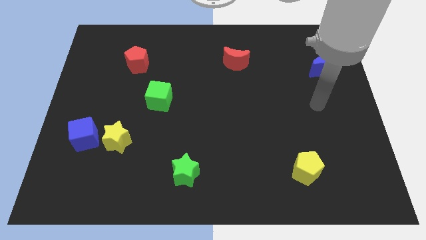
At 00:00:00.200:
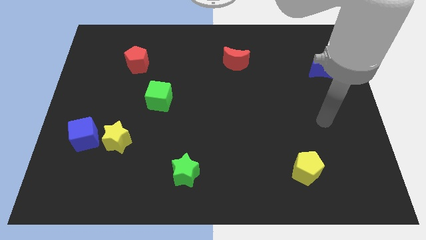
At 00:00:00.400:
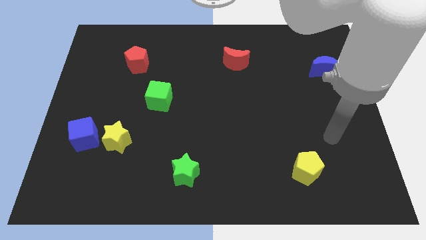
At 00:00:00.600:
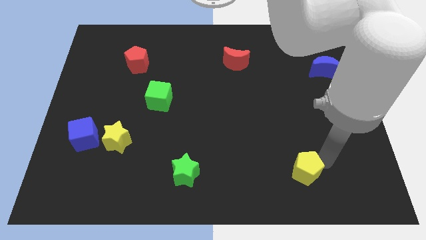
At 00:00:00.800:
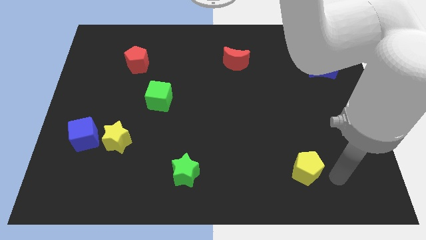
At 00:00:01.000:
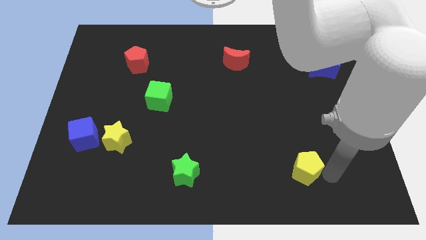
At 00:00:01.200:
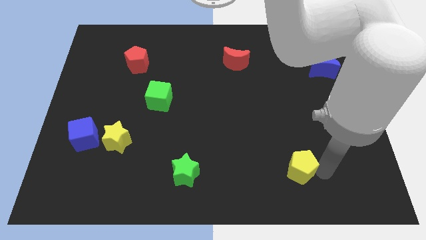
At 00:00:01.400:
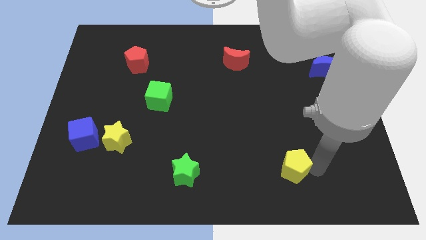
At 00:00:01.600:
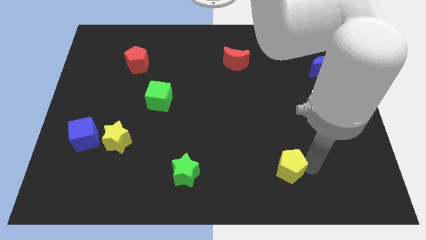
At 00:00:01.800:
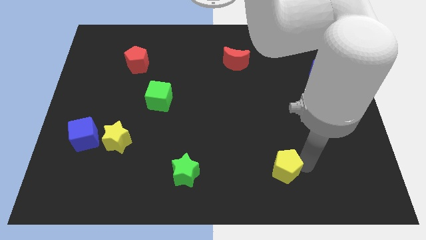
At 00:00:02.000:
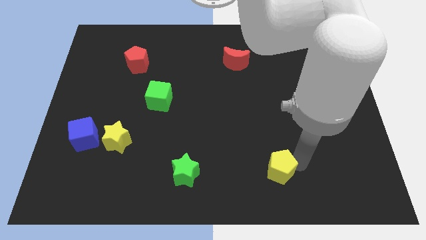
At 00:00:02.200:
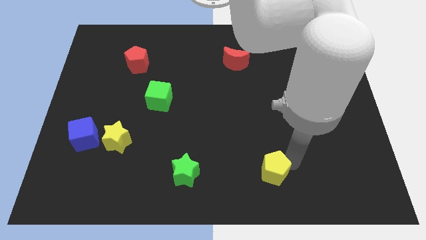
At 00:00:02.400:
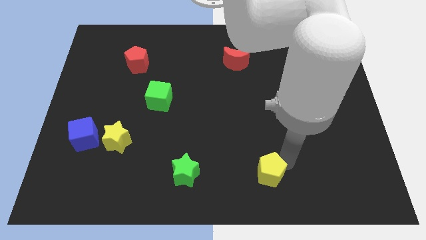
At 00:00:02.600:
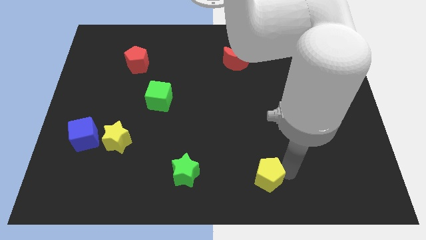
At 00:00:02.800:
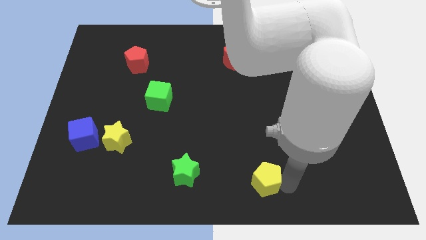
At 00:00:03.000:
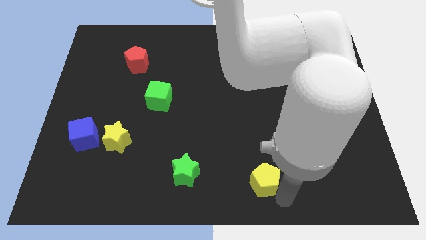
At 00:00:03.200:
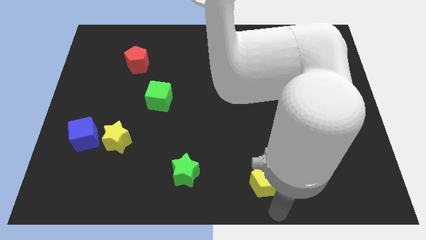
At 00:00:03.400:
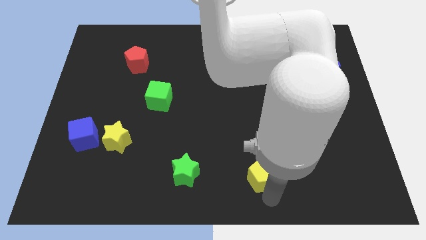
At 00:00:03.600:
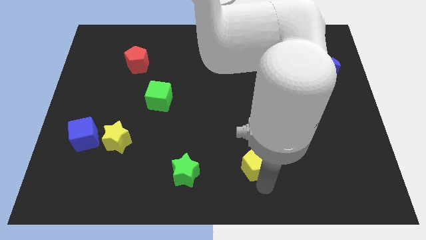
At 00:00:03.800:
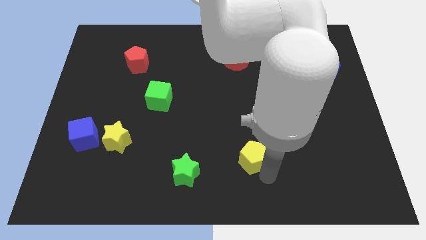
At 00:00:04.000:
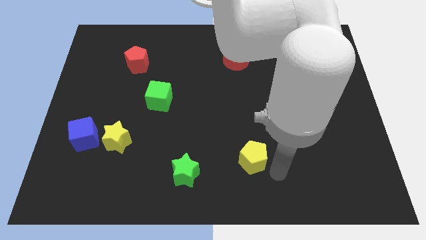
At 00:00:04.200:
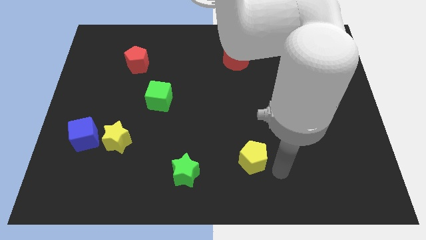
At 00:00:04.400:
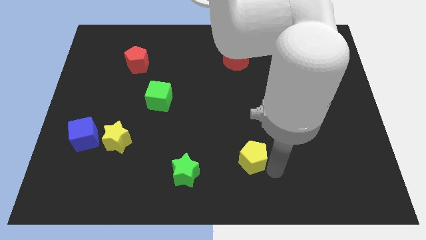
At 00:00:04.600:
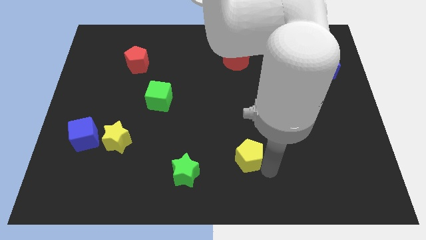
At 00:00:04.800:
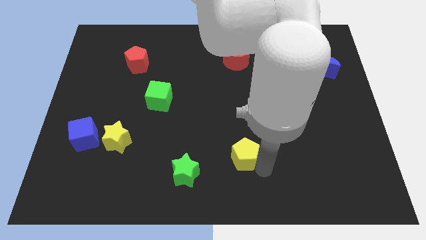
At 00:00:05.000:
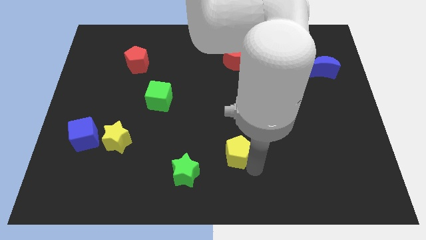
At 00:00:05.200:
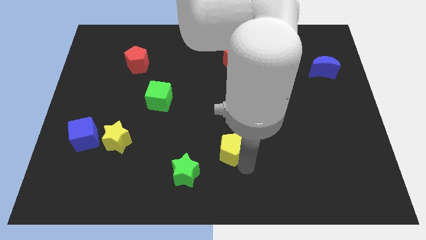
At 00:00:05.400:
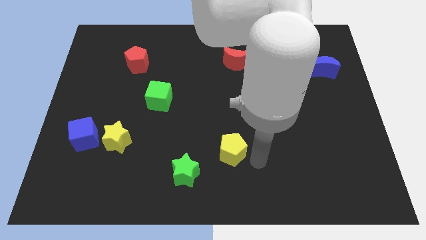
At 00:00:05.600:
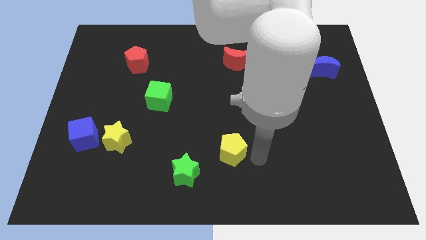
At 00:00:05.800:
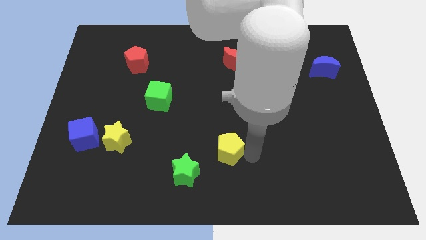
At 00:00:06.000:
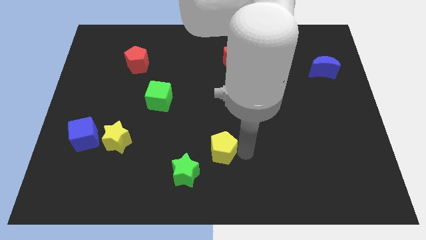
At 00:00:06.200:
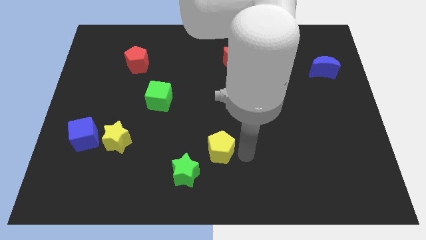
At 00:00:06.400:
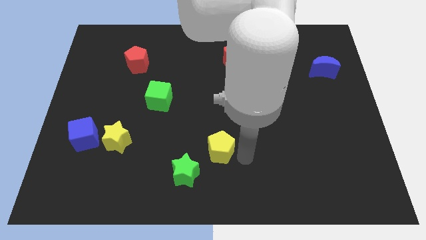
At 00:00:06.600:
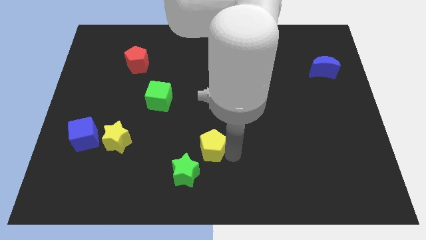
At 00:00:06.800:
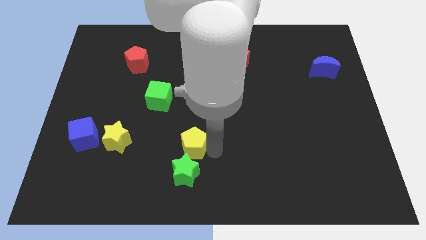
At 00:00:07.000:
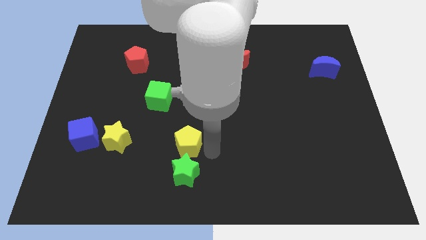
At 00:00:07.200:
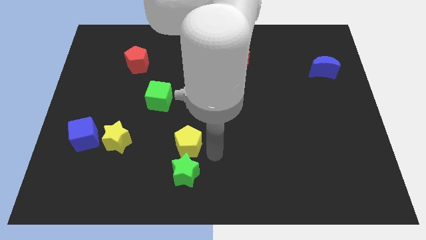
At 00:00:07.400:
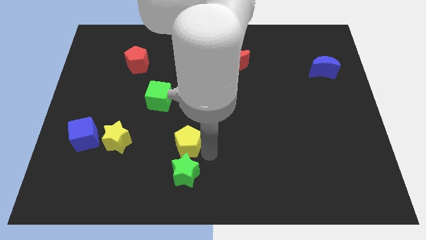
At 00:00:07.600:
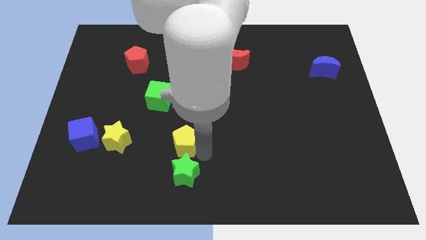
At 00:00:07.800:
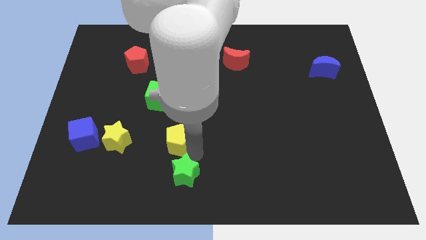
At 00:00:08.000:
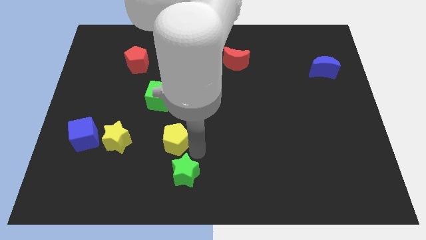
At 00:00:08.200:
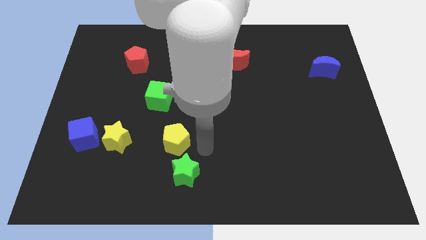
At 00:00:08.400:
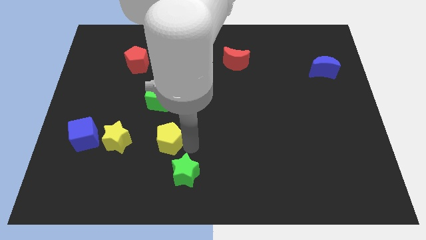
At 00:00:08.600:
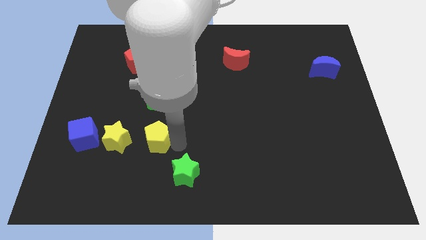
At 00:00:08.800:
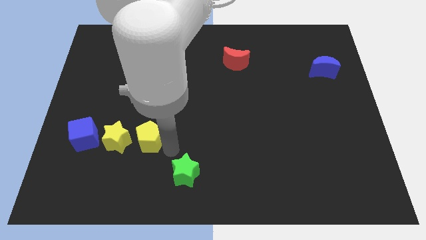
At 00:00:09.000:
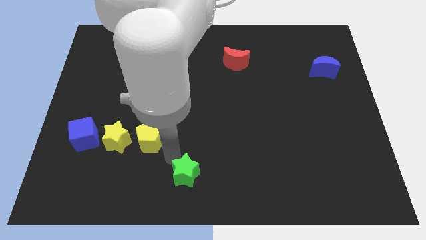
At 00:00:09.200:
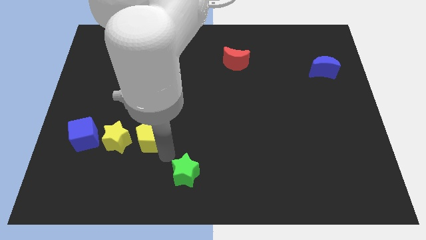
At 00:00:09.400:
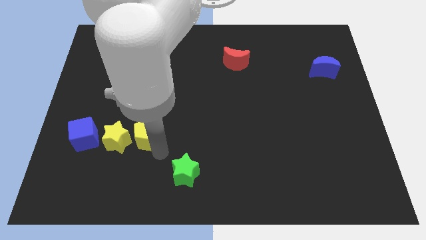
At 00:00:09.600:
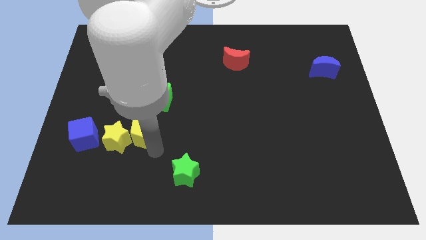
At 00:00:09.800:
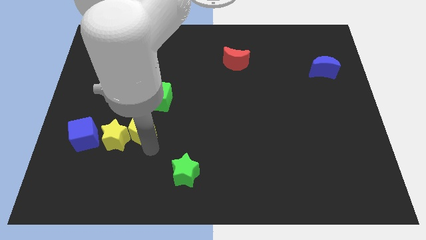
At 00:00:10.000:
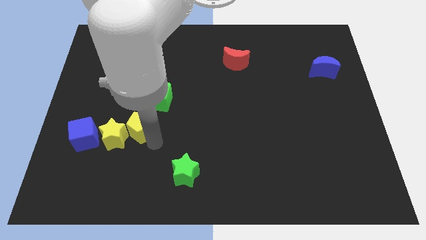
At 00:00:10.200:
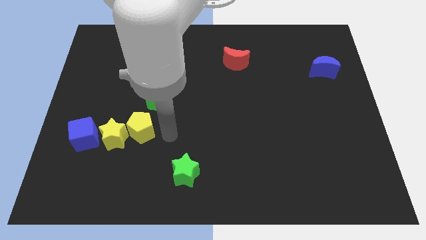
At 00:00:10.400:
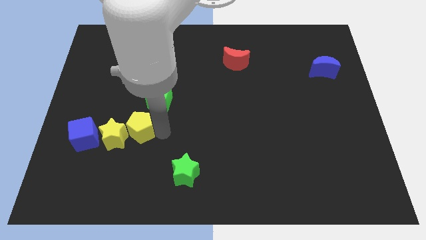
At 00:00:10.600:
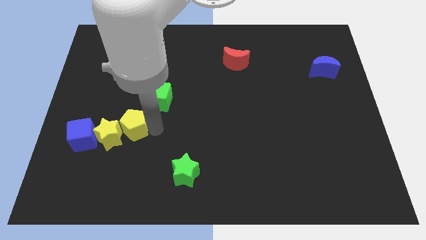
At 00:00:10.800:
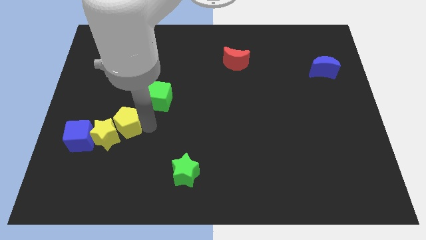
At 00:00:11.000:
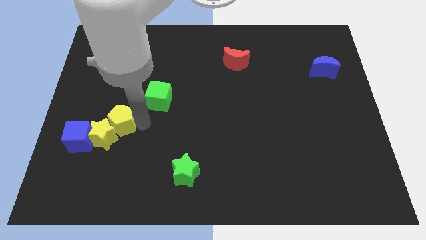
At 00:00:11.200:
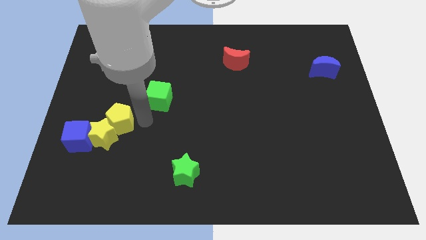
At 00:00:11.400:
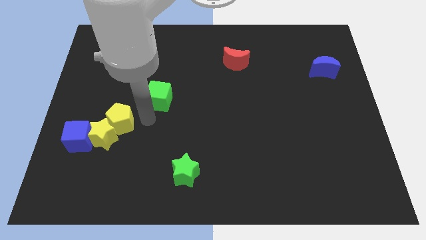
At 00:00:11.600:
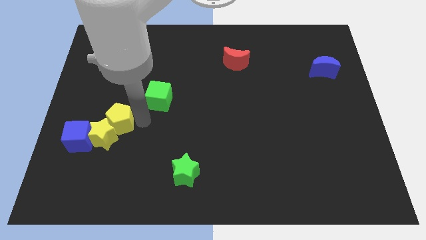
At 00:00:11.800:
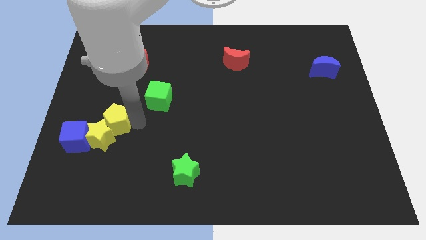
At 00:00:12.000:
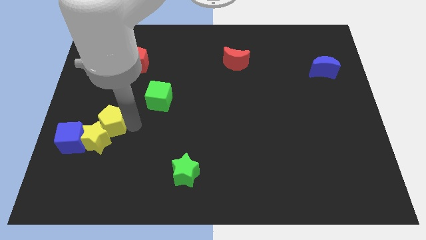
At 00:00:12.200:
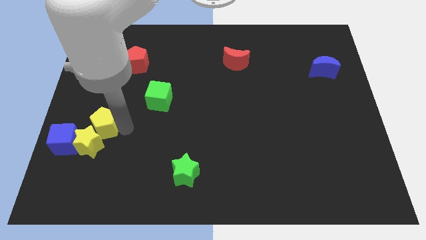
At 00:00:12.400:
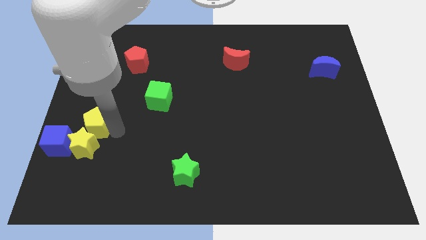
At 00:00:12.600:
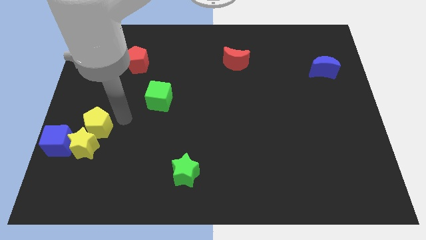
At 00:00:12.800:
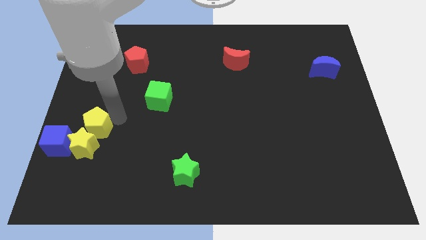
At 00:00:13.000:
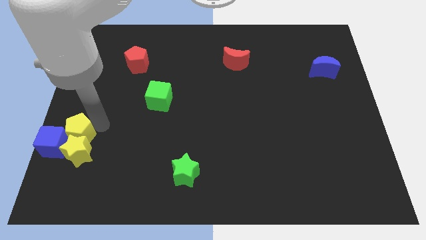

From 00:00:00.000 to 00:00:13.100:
move the yellow pentagon next to the blue cube

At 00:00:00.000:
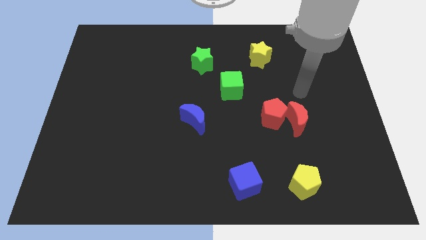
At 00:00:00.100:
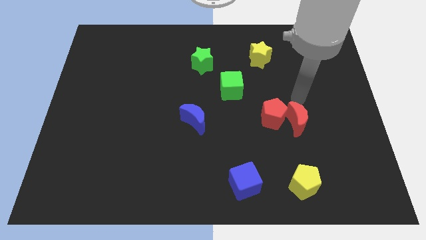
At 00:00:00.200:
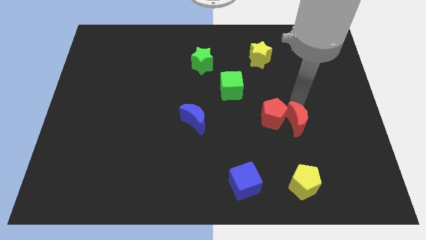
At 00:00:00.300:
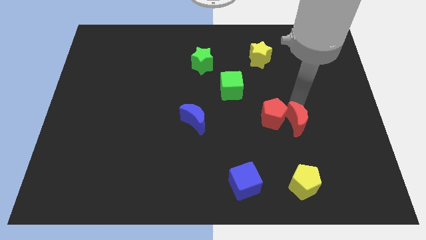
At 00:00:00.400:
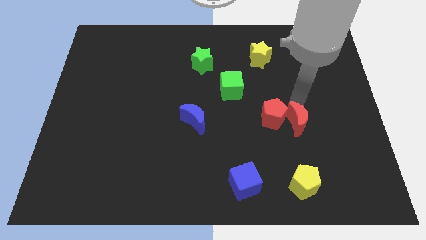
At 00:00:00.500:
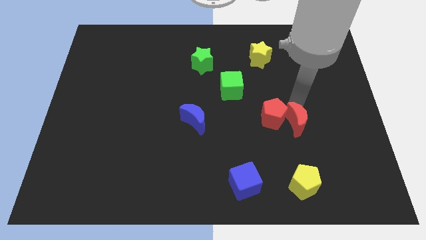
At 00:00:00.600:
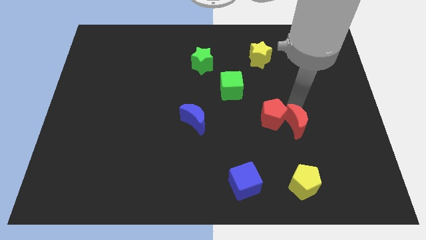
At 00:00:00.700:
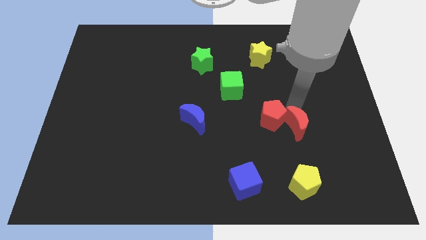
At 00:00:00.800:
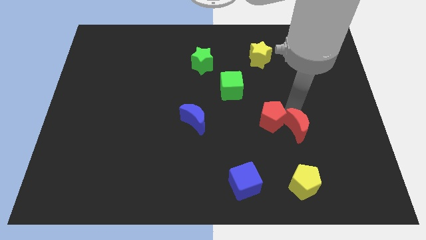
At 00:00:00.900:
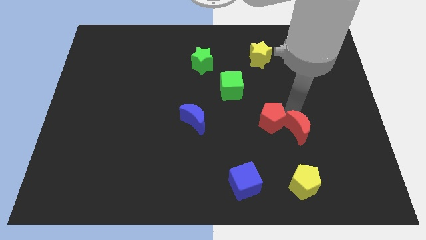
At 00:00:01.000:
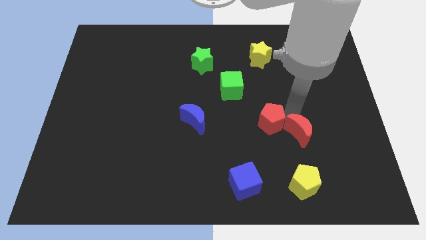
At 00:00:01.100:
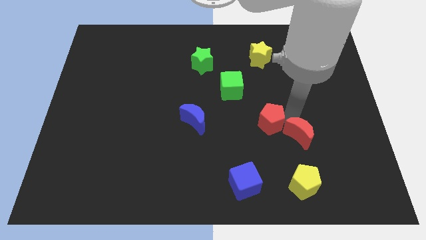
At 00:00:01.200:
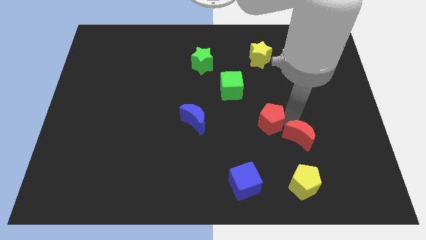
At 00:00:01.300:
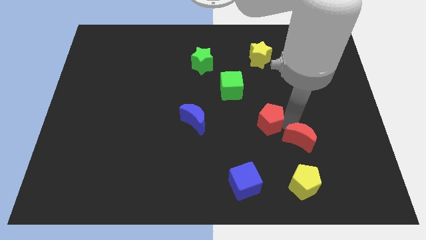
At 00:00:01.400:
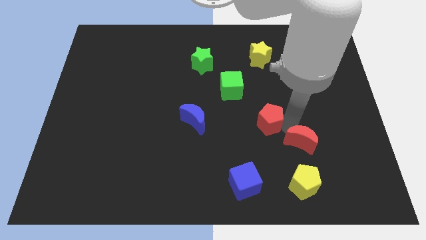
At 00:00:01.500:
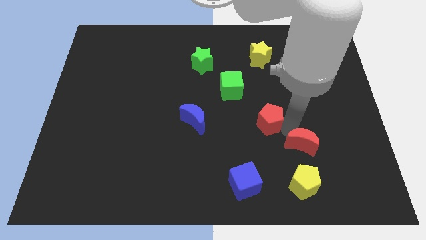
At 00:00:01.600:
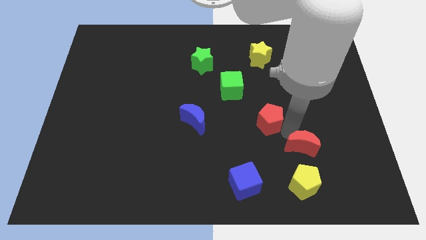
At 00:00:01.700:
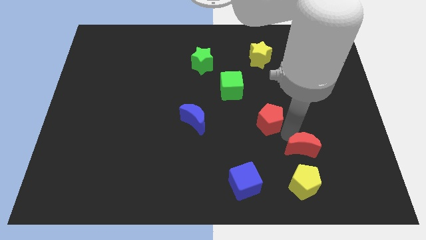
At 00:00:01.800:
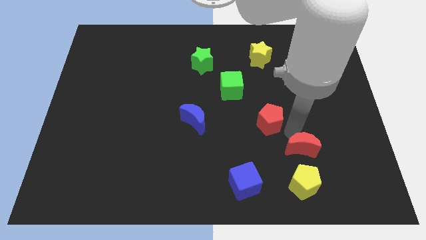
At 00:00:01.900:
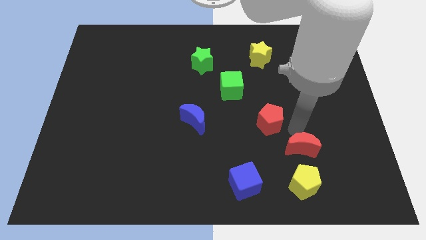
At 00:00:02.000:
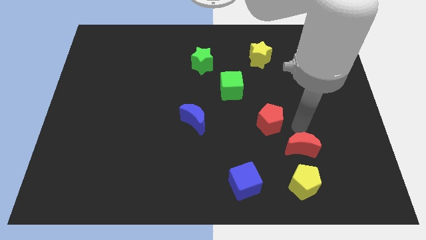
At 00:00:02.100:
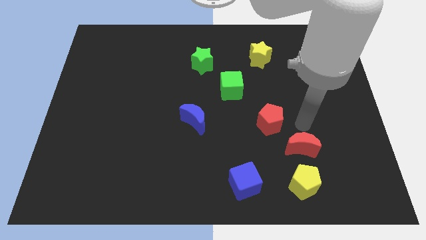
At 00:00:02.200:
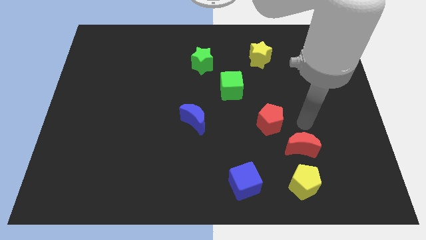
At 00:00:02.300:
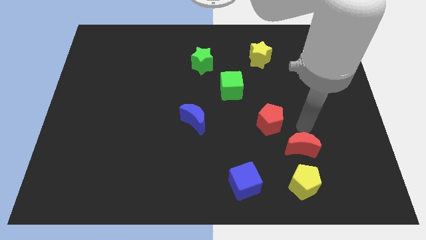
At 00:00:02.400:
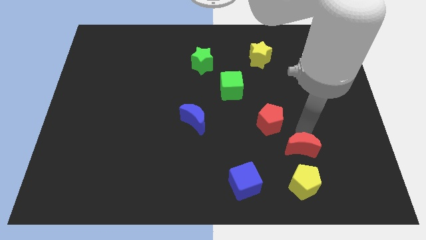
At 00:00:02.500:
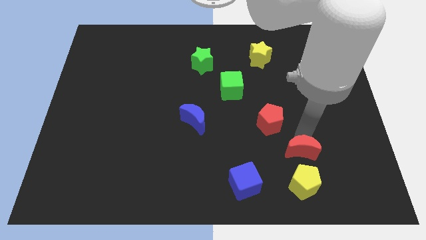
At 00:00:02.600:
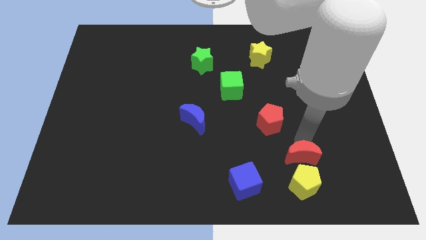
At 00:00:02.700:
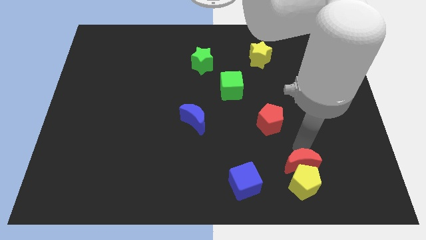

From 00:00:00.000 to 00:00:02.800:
move the red moon to the yellow pentagon
